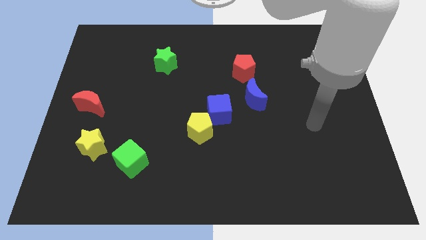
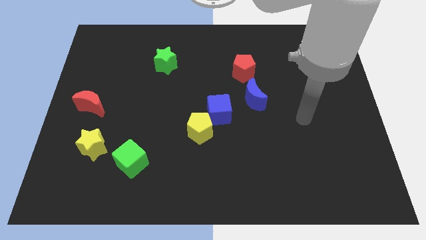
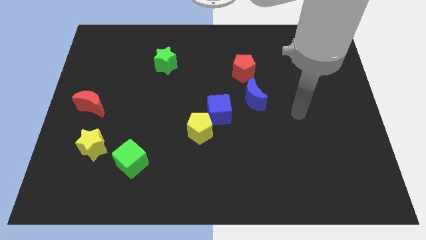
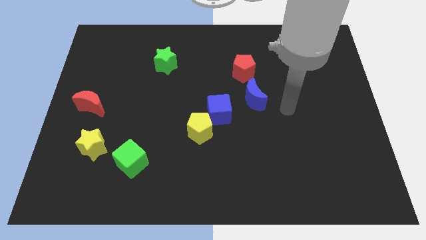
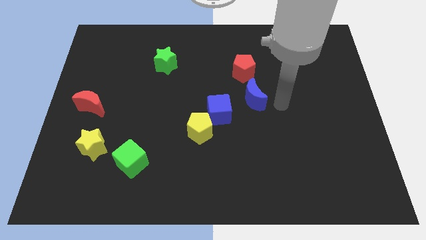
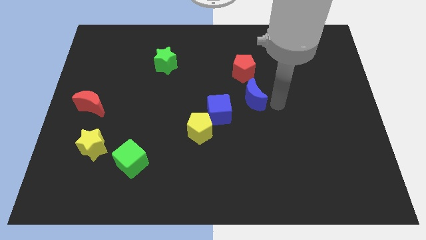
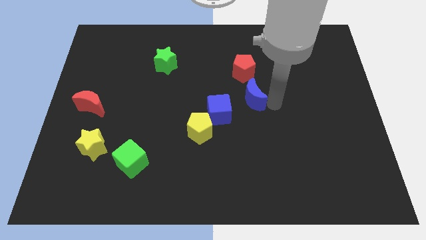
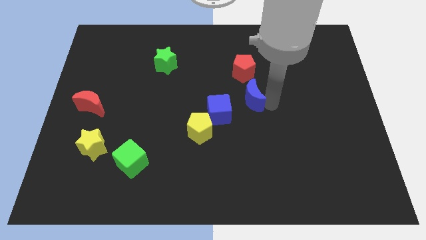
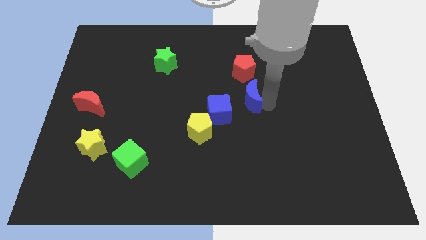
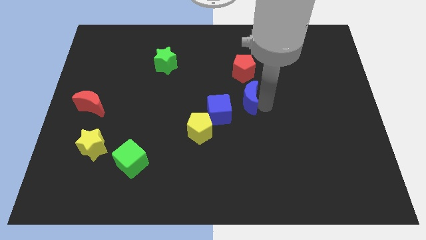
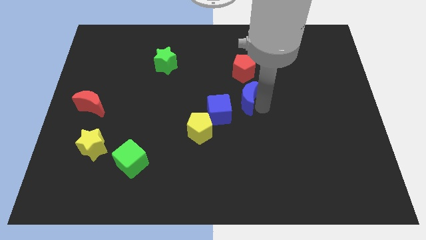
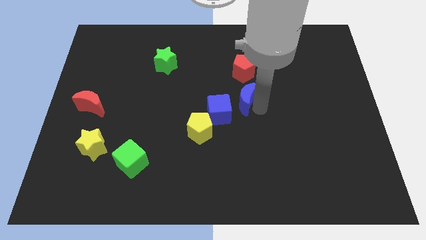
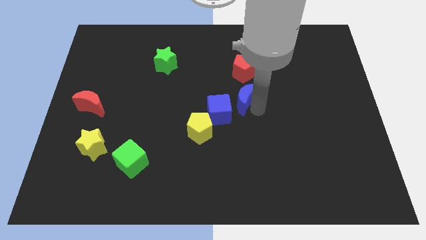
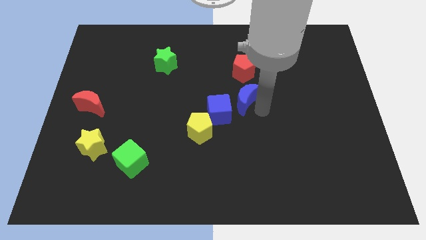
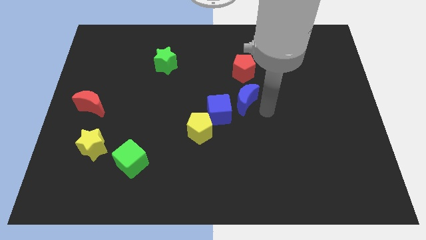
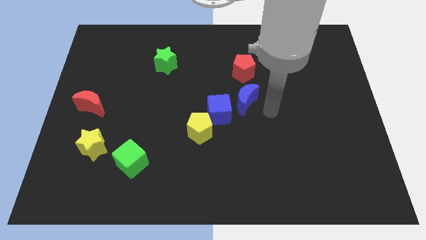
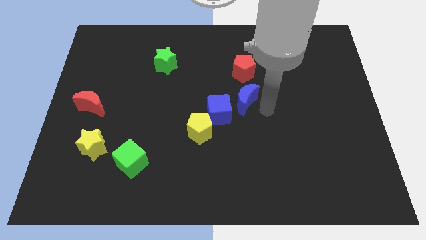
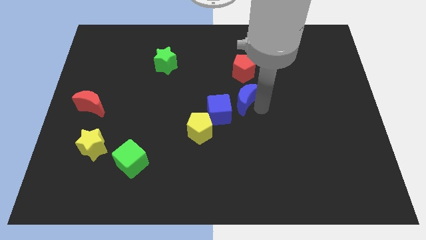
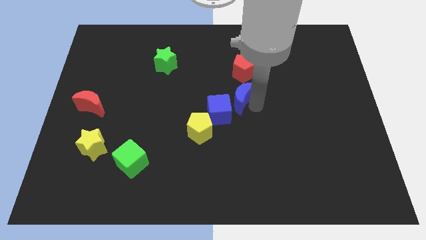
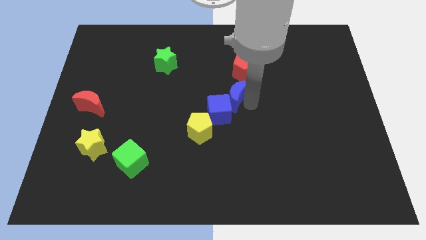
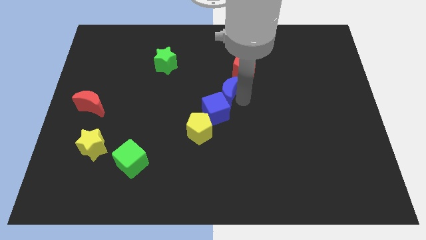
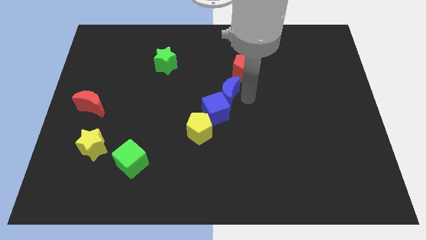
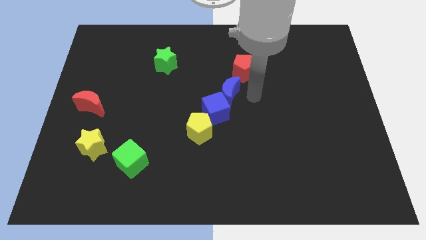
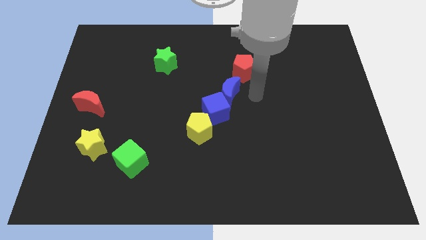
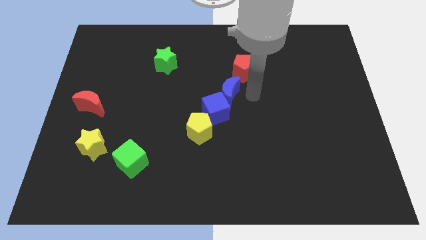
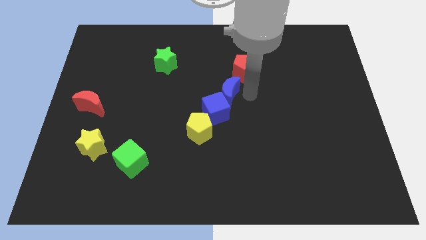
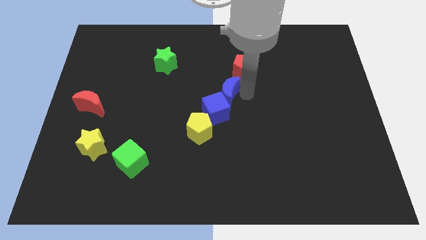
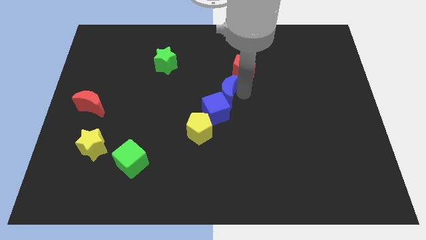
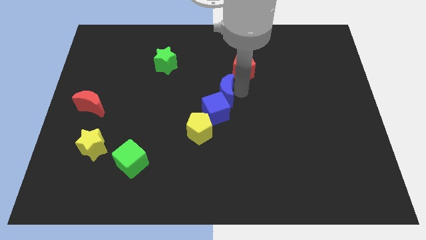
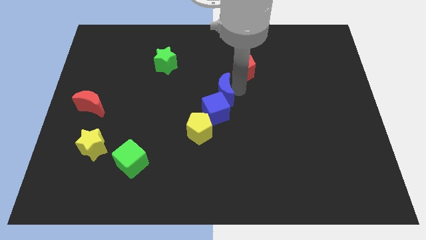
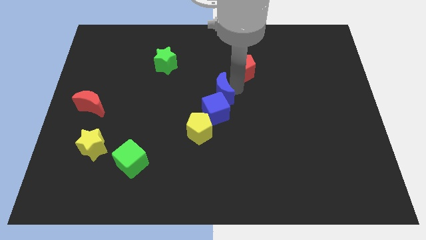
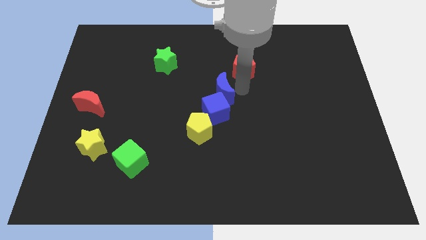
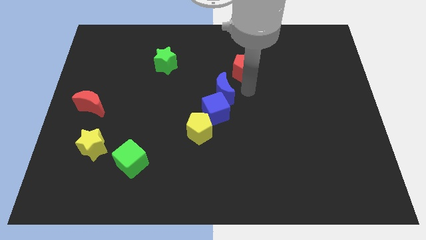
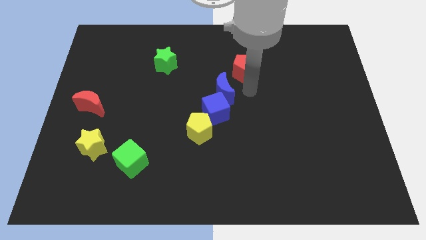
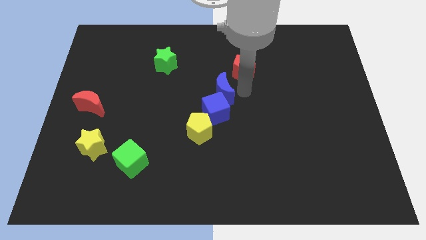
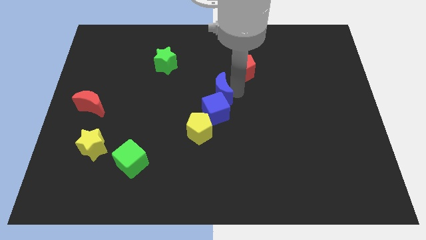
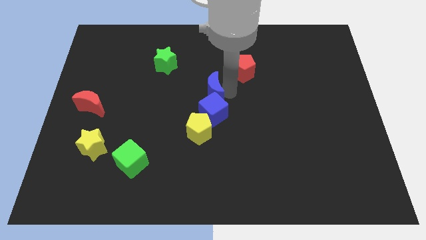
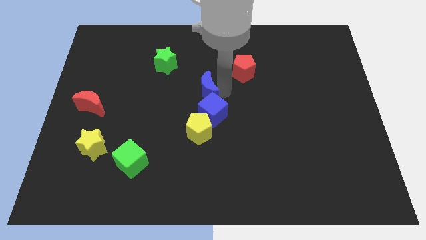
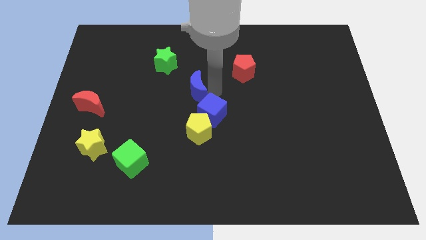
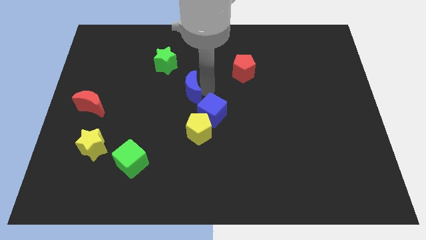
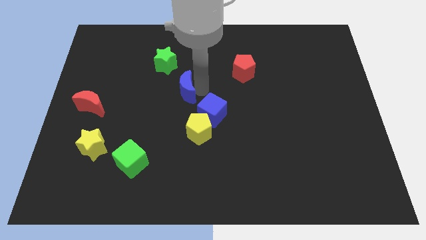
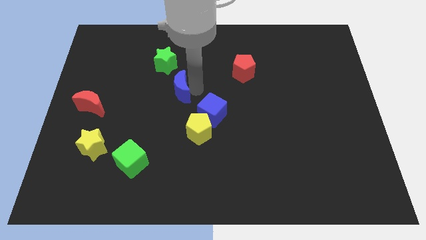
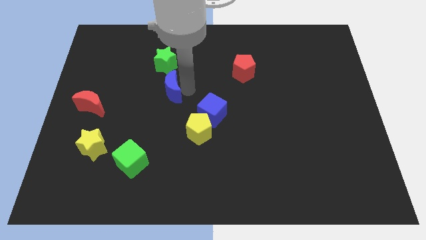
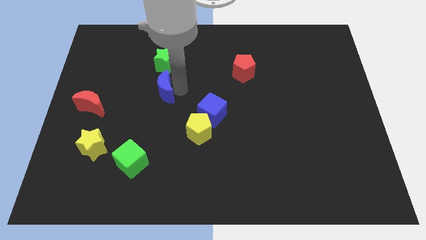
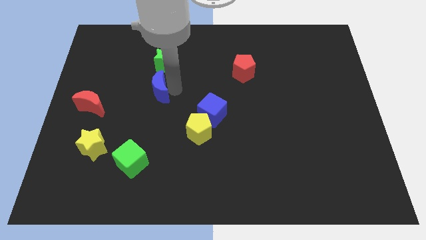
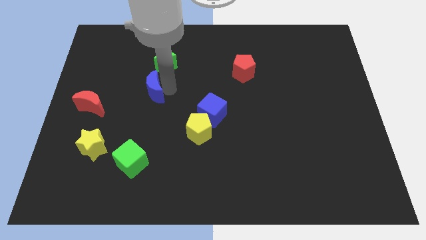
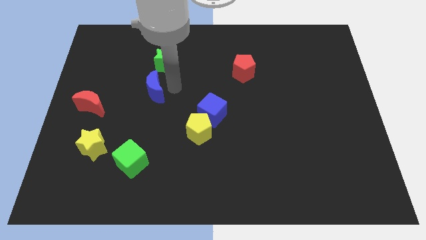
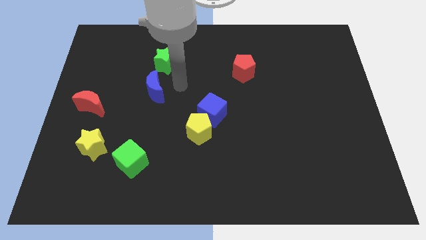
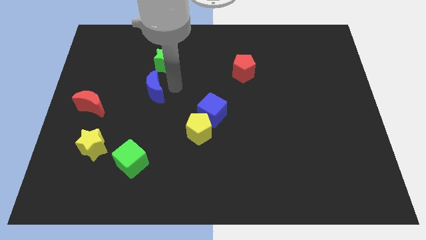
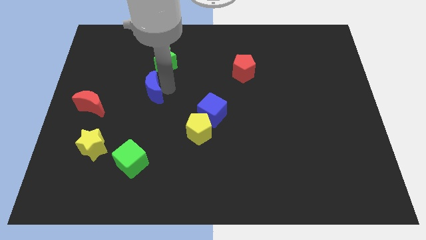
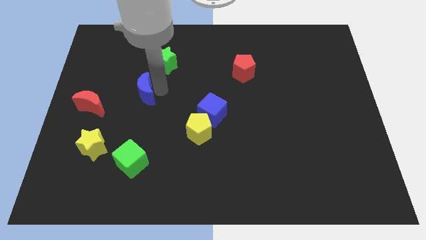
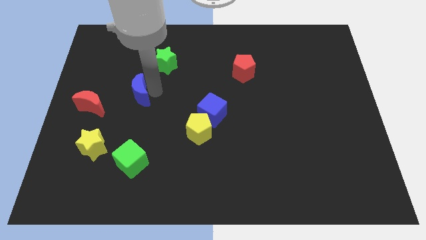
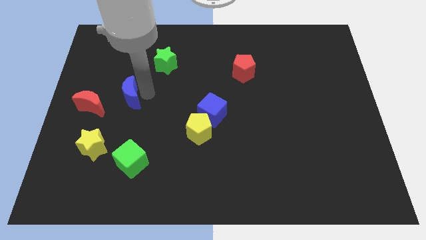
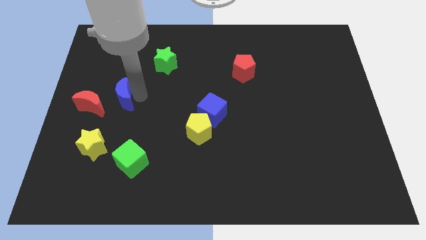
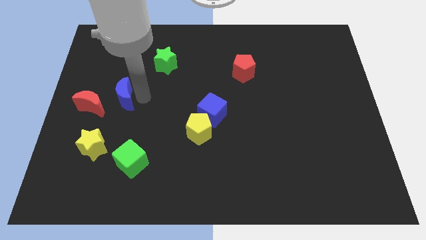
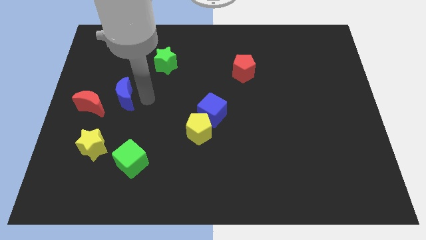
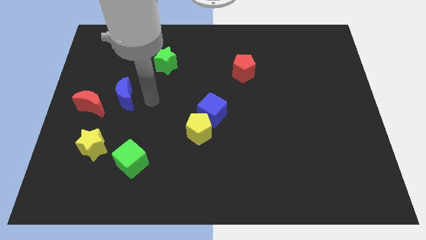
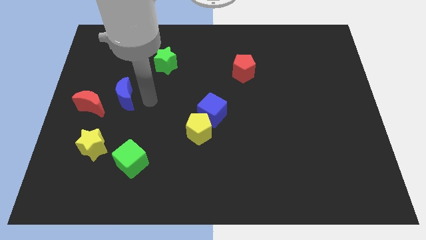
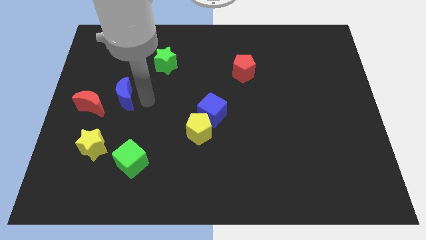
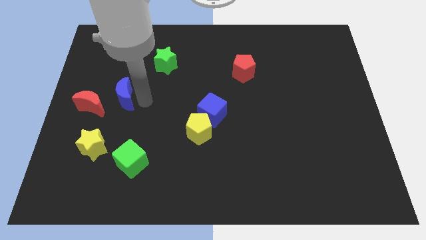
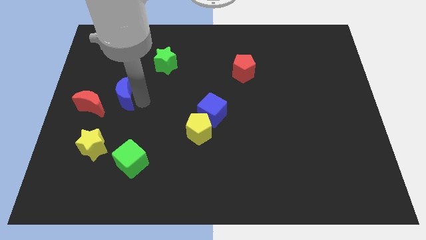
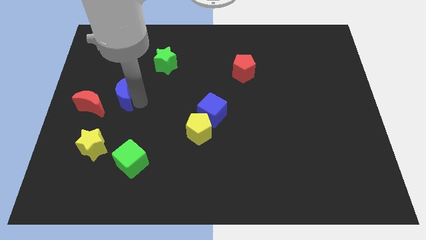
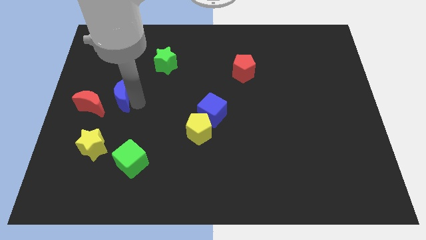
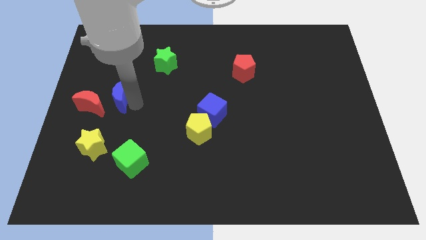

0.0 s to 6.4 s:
push the blue moon to the top of the yellow star

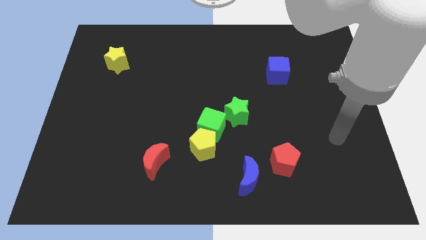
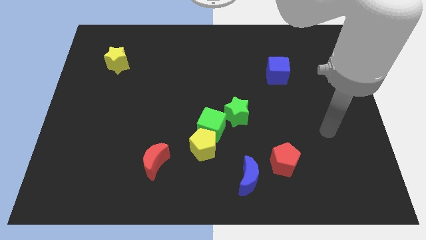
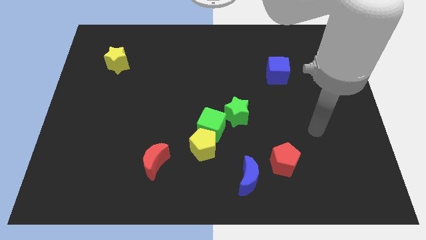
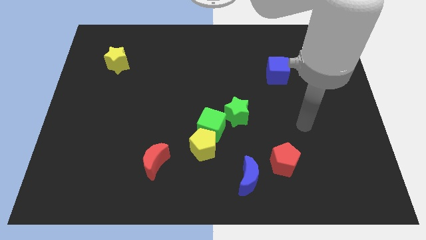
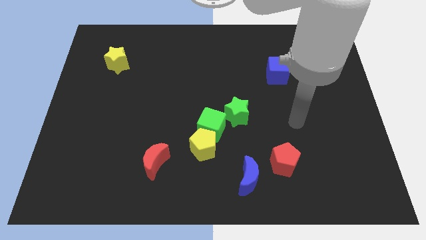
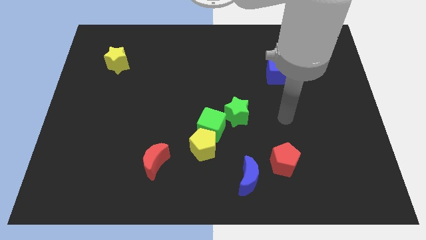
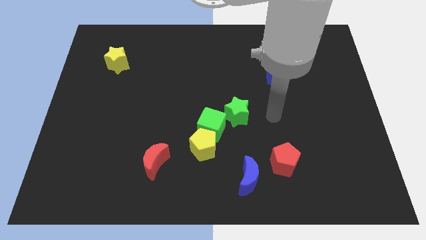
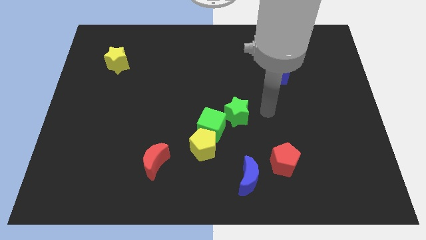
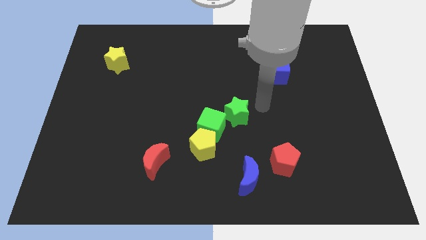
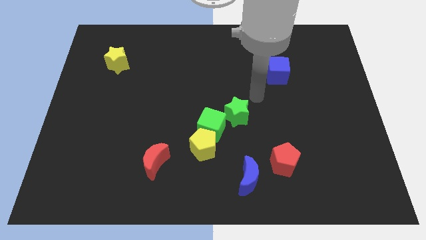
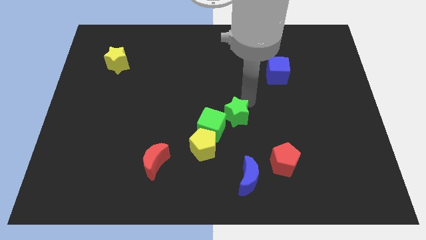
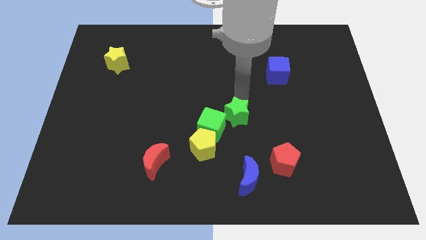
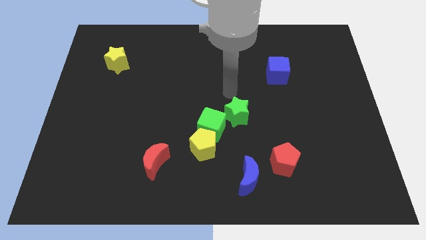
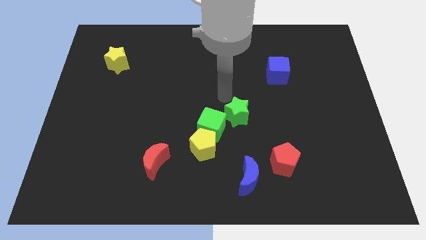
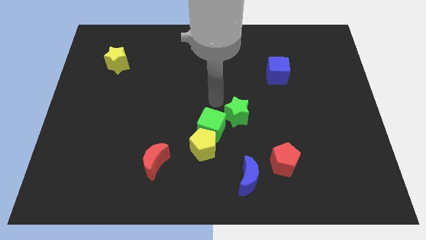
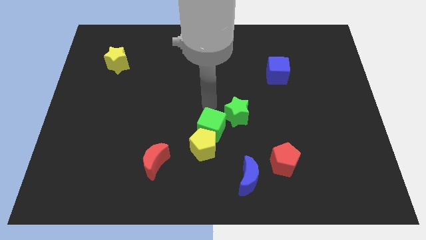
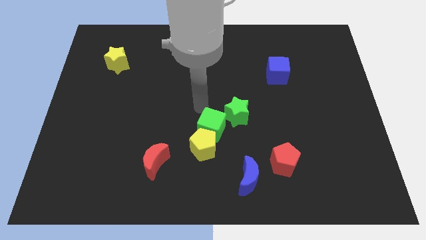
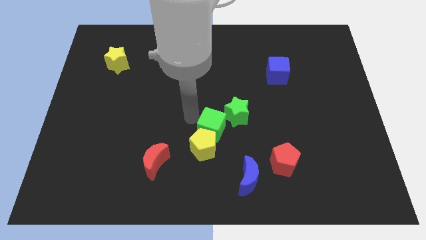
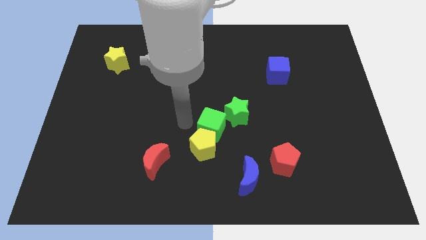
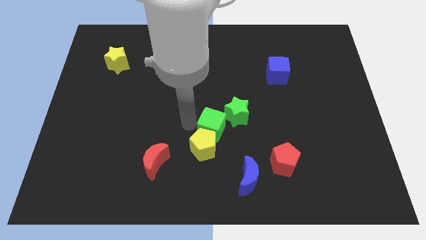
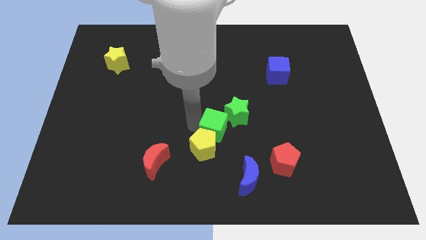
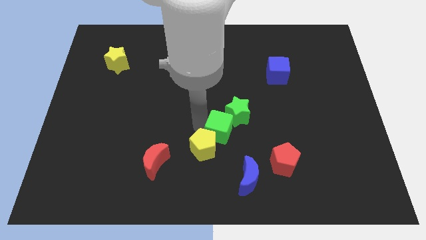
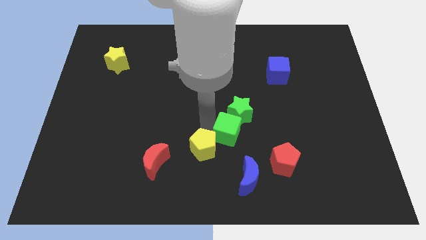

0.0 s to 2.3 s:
push the green cube above the blue moon
